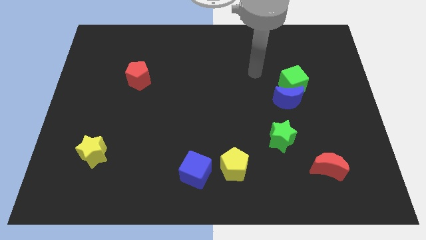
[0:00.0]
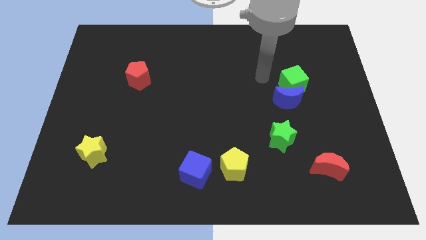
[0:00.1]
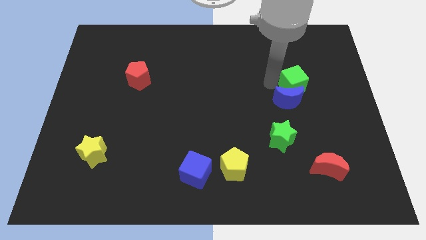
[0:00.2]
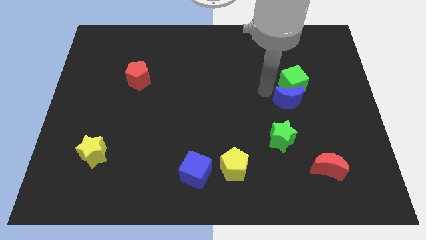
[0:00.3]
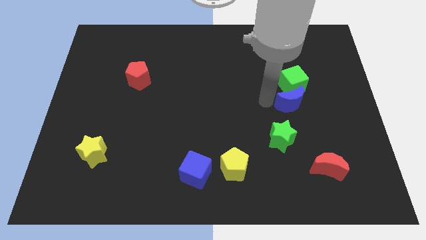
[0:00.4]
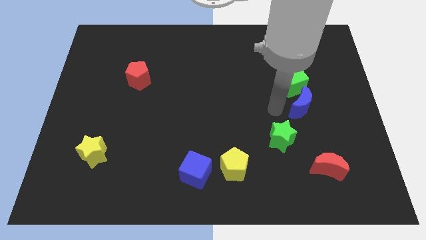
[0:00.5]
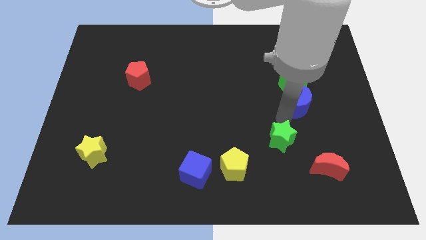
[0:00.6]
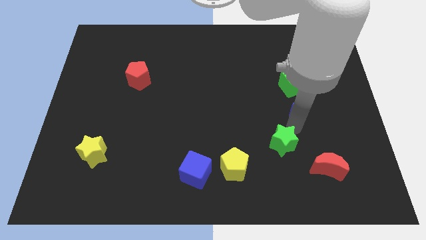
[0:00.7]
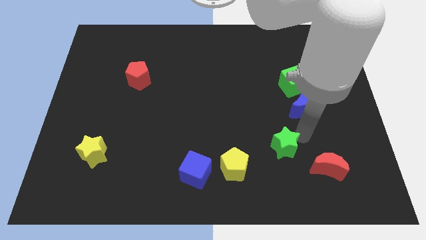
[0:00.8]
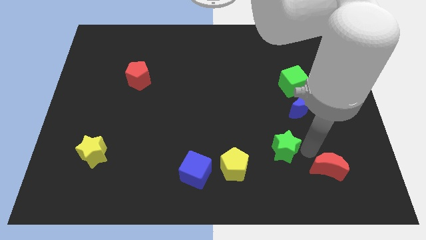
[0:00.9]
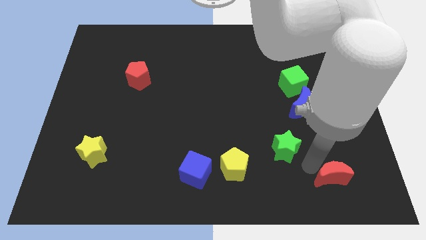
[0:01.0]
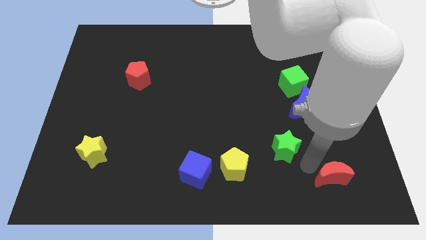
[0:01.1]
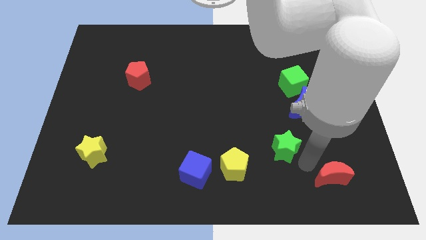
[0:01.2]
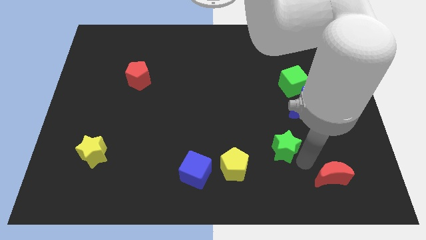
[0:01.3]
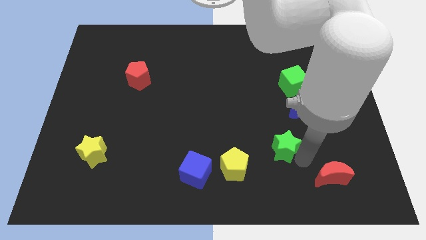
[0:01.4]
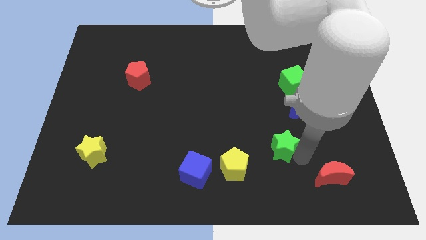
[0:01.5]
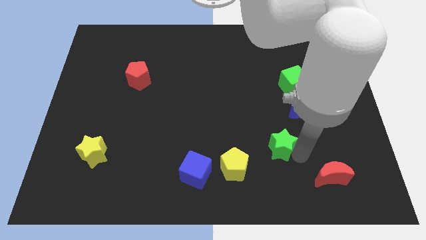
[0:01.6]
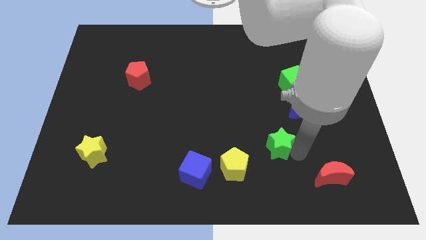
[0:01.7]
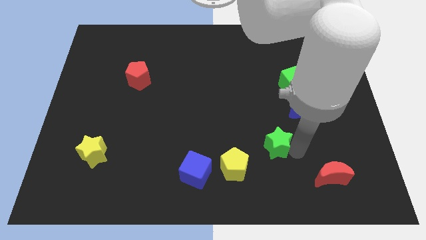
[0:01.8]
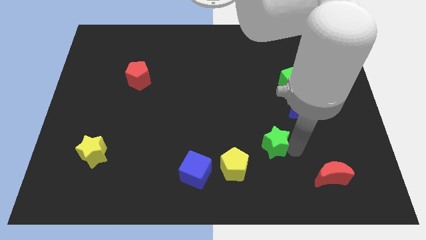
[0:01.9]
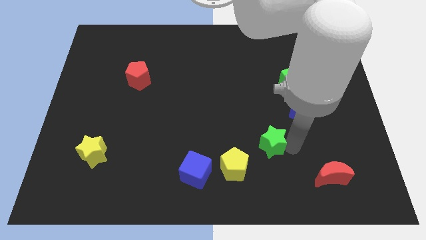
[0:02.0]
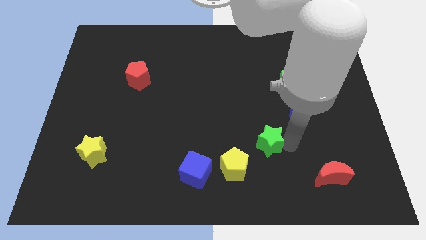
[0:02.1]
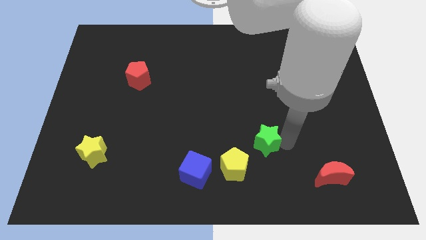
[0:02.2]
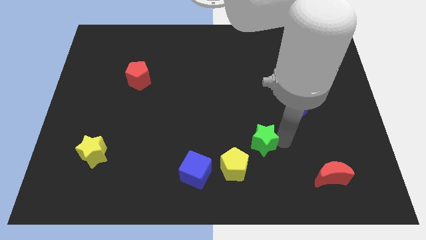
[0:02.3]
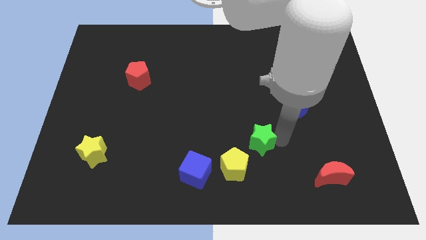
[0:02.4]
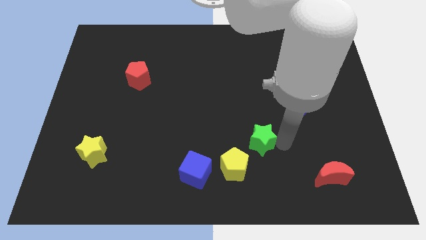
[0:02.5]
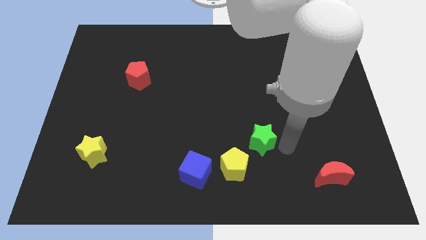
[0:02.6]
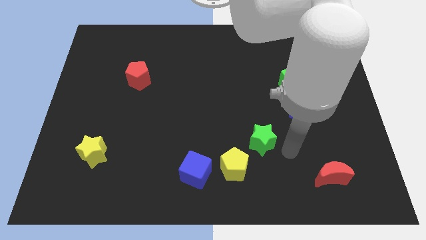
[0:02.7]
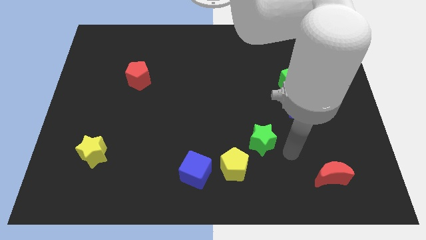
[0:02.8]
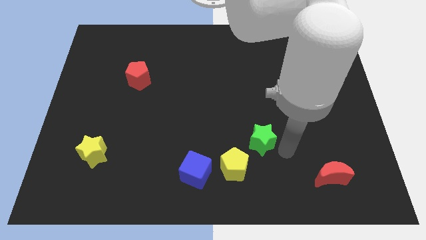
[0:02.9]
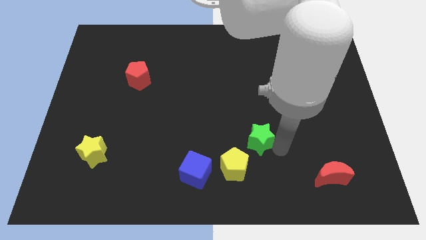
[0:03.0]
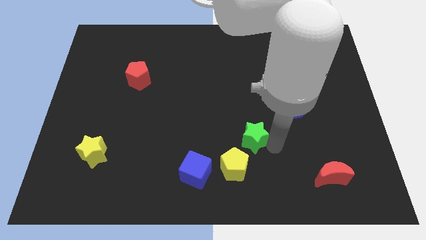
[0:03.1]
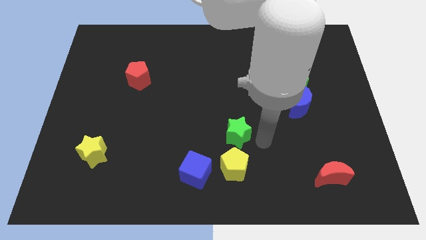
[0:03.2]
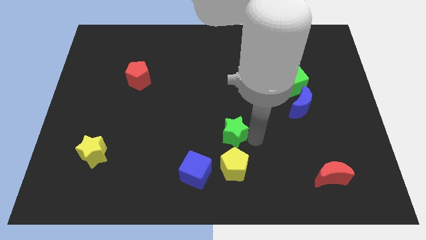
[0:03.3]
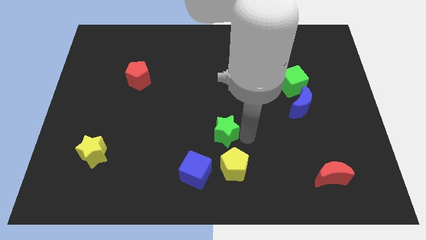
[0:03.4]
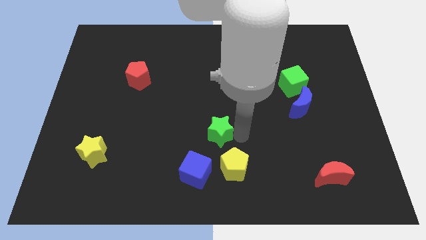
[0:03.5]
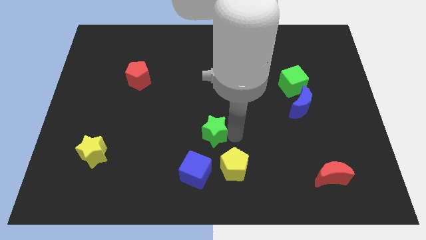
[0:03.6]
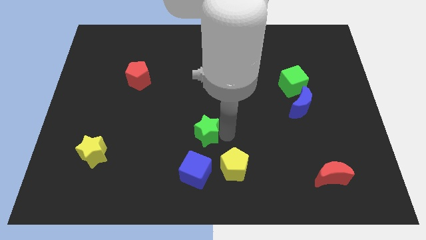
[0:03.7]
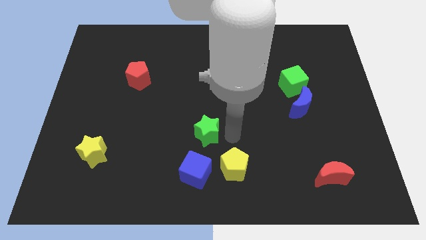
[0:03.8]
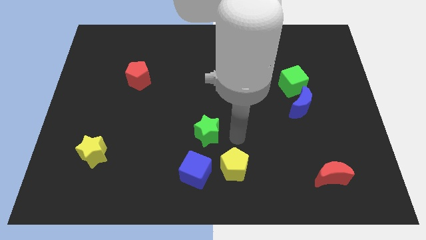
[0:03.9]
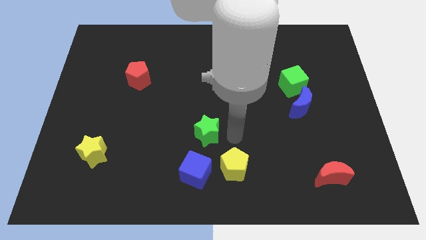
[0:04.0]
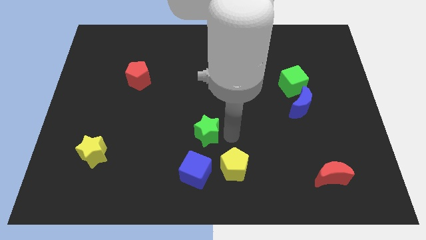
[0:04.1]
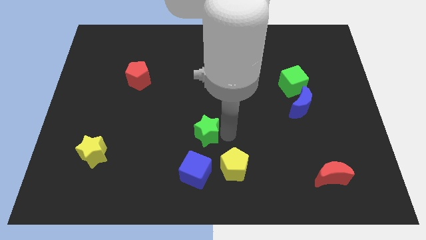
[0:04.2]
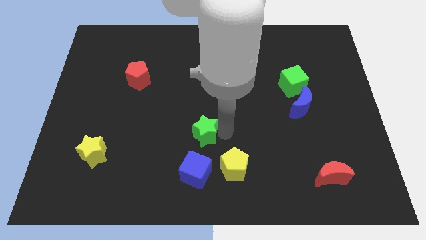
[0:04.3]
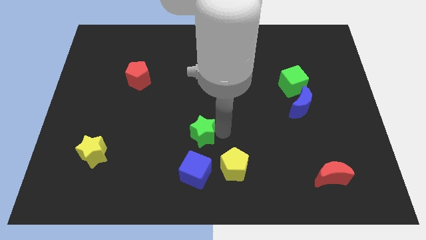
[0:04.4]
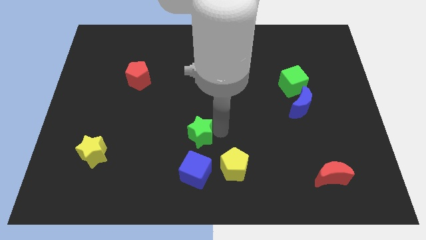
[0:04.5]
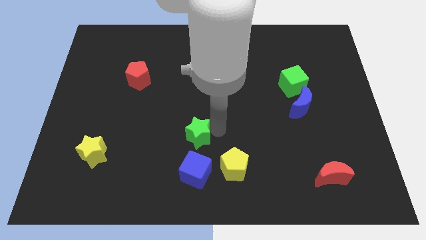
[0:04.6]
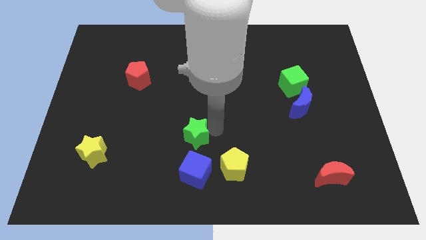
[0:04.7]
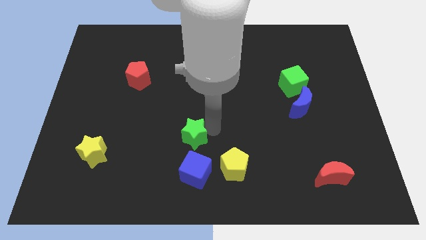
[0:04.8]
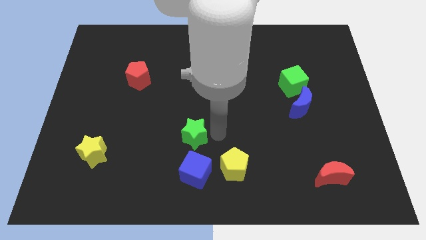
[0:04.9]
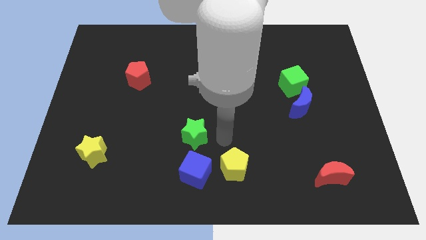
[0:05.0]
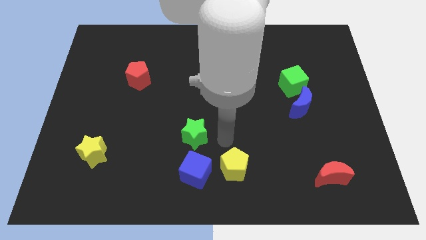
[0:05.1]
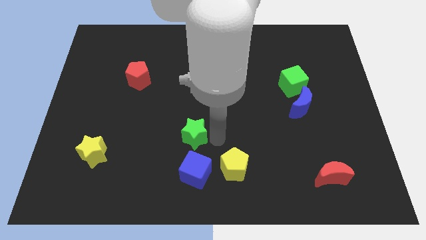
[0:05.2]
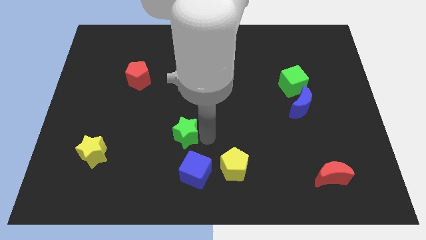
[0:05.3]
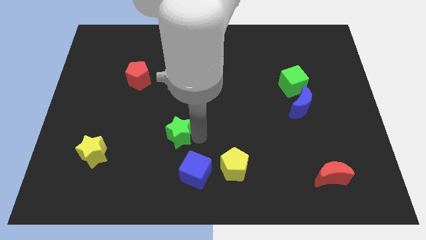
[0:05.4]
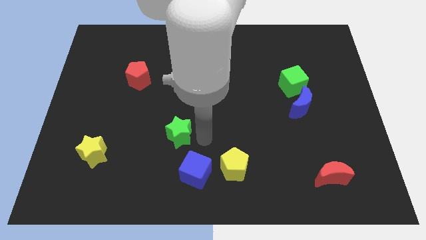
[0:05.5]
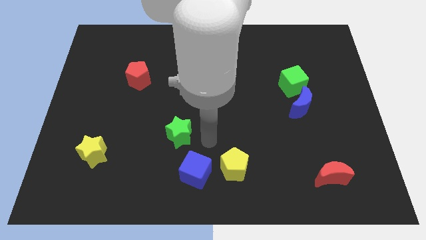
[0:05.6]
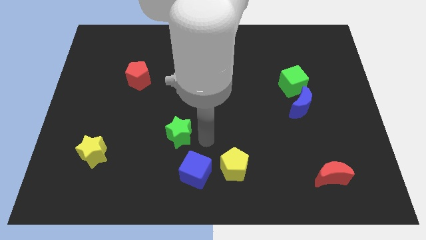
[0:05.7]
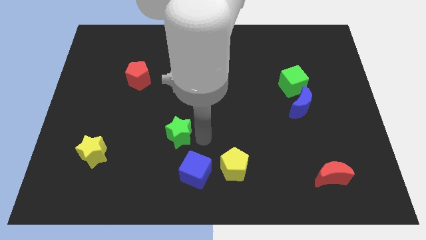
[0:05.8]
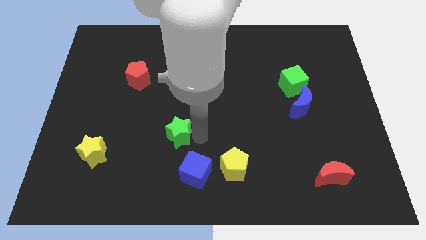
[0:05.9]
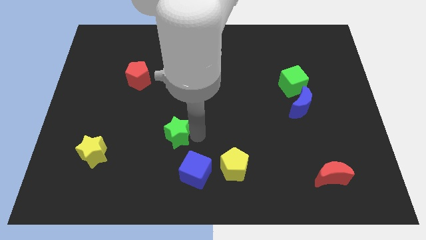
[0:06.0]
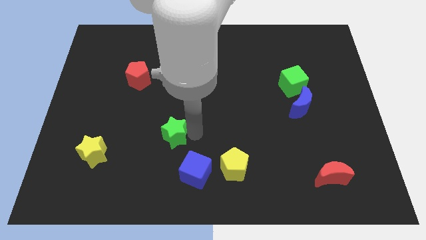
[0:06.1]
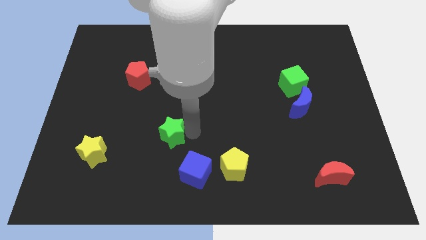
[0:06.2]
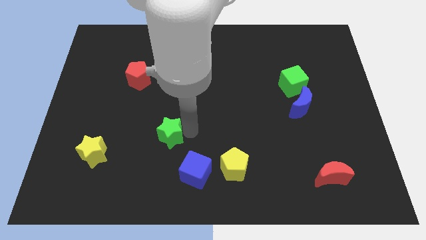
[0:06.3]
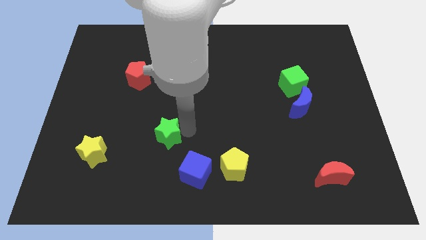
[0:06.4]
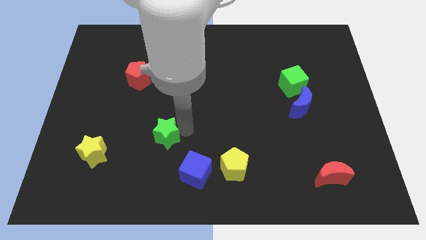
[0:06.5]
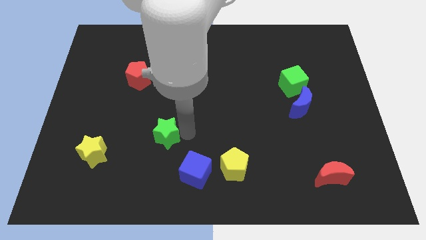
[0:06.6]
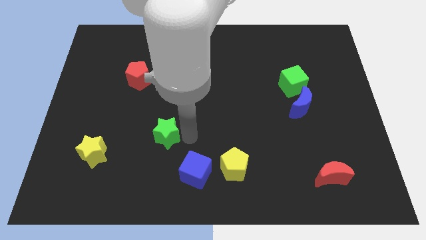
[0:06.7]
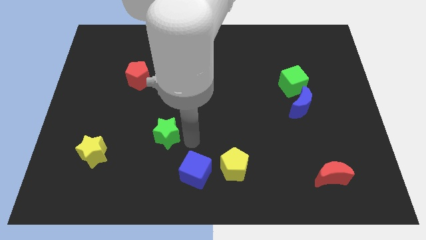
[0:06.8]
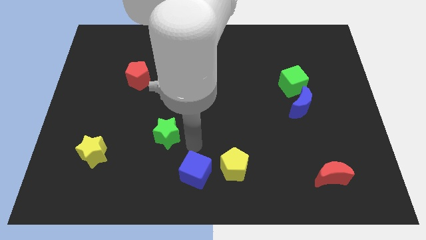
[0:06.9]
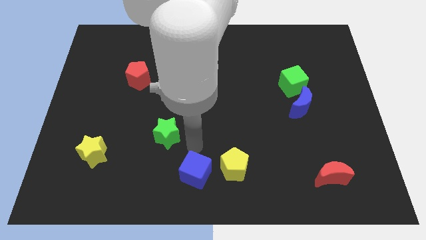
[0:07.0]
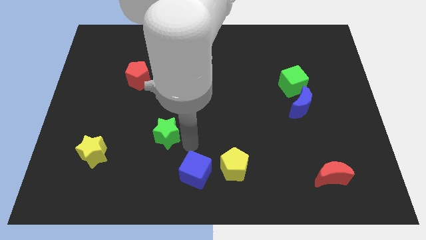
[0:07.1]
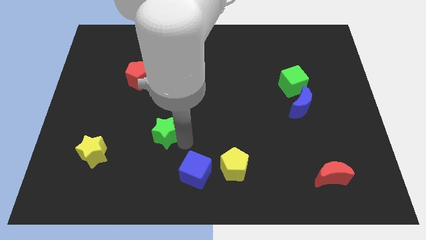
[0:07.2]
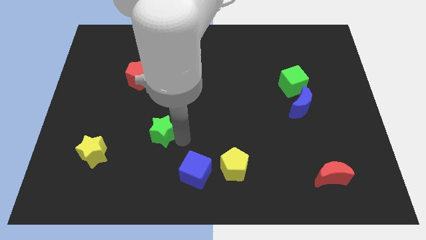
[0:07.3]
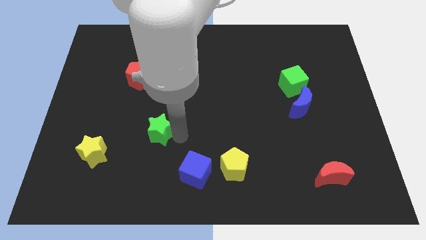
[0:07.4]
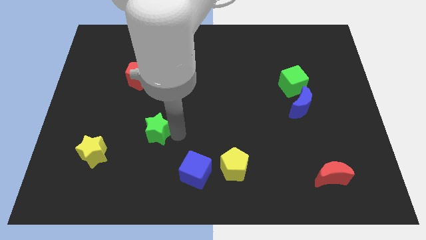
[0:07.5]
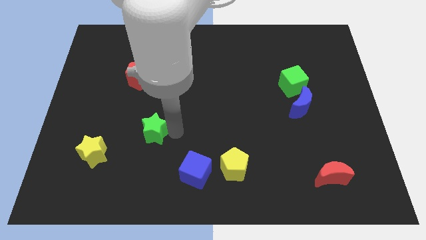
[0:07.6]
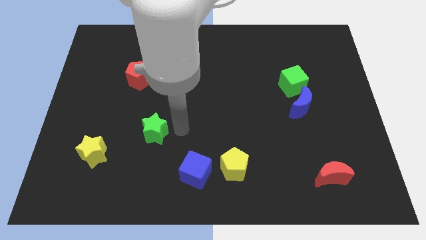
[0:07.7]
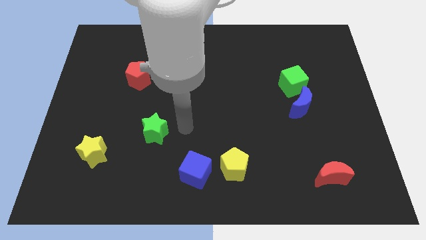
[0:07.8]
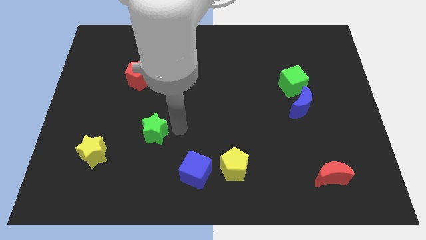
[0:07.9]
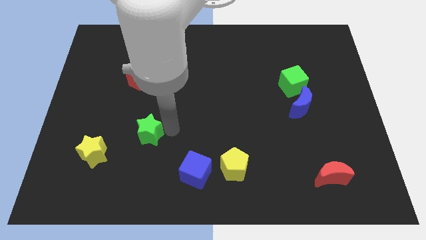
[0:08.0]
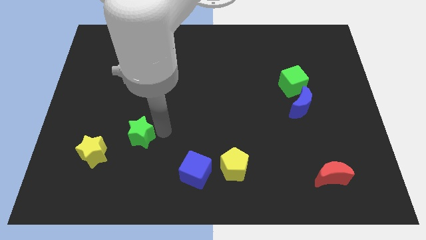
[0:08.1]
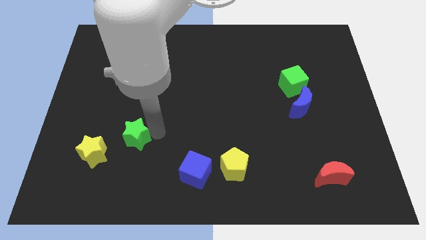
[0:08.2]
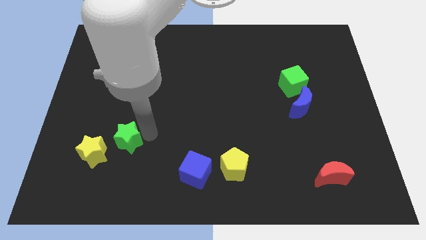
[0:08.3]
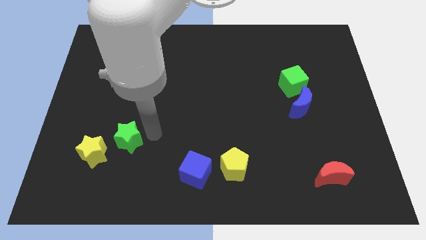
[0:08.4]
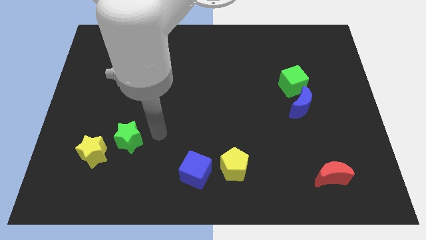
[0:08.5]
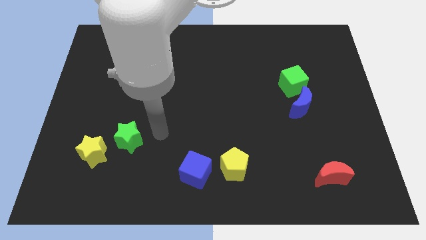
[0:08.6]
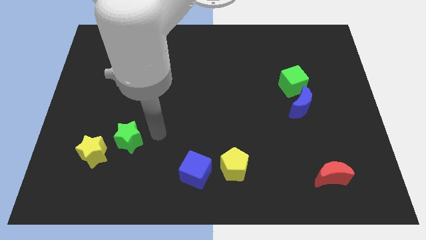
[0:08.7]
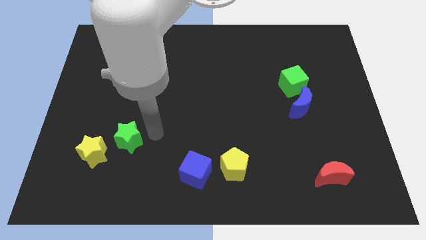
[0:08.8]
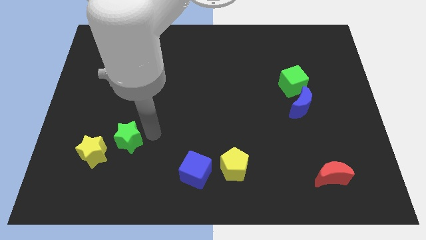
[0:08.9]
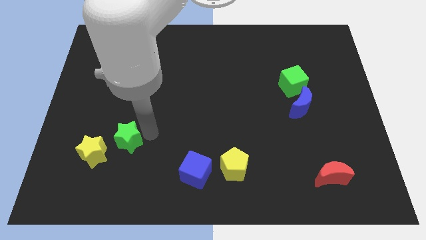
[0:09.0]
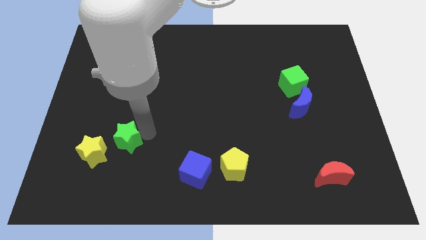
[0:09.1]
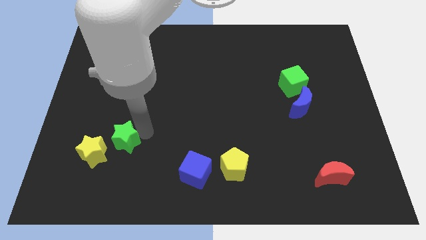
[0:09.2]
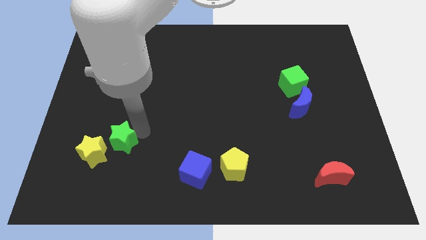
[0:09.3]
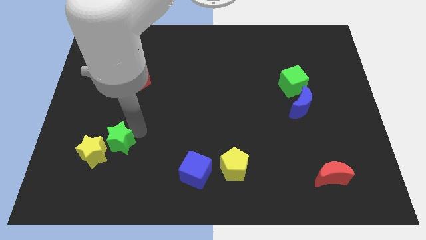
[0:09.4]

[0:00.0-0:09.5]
push the green star towards the yellow star
